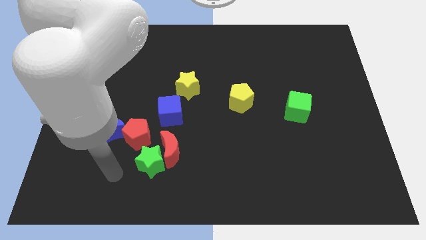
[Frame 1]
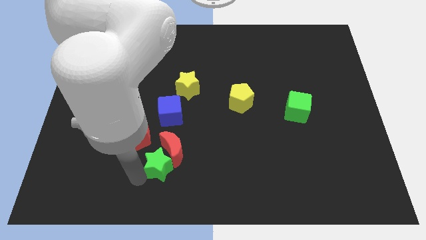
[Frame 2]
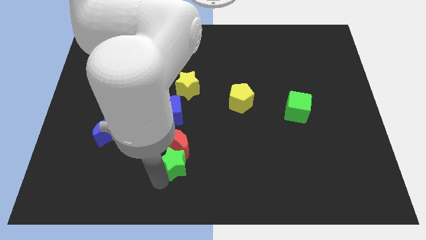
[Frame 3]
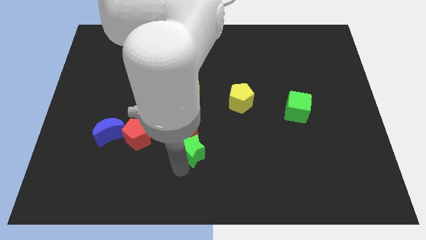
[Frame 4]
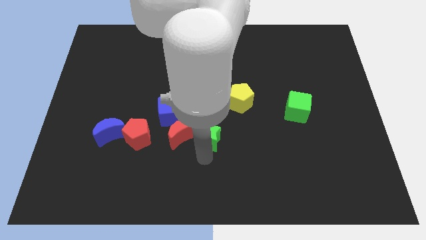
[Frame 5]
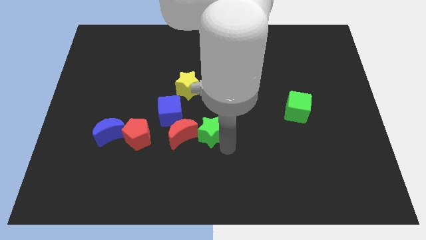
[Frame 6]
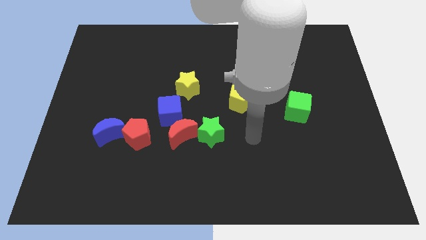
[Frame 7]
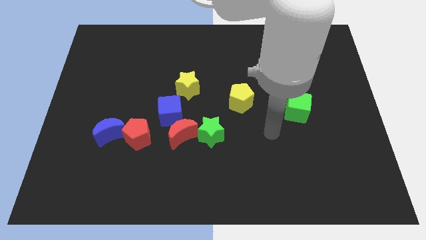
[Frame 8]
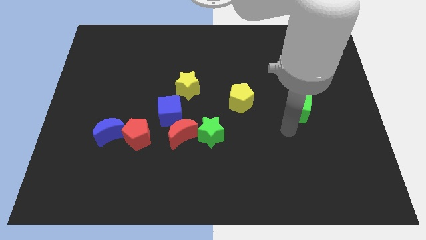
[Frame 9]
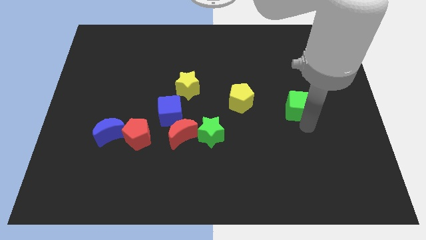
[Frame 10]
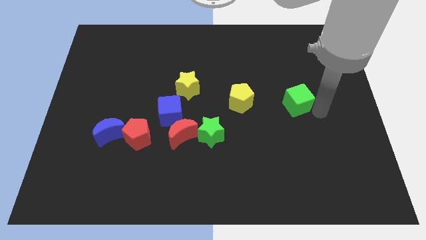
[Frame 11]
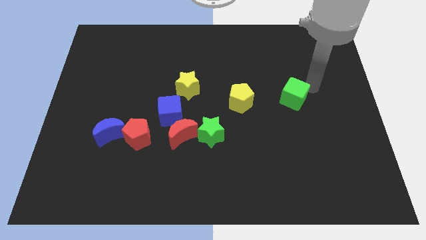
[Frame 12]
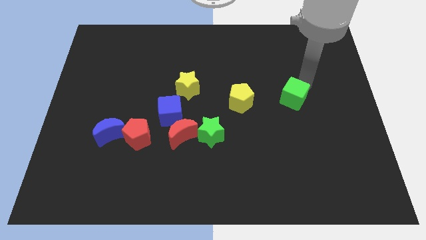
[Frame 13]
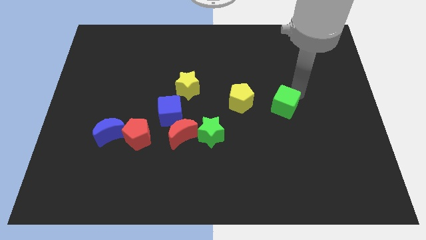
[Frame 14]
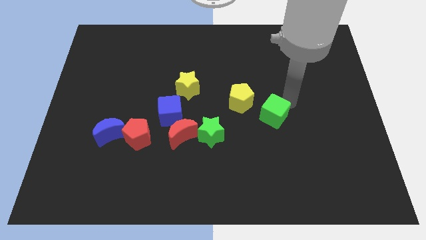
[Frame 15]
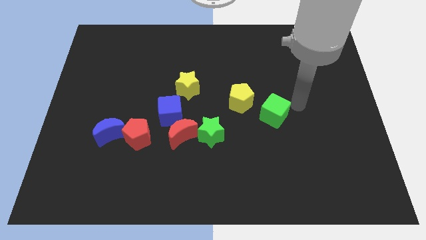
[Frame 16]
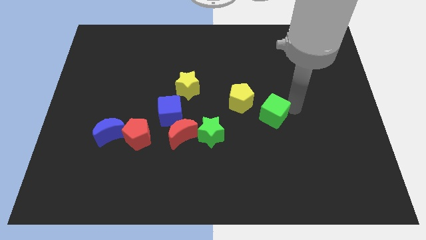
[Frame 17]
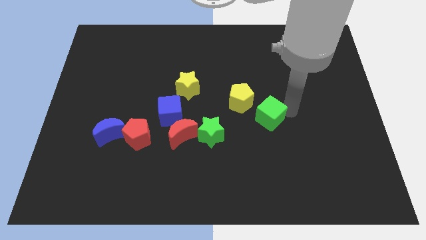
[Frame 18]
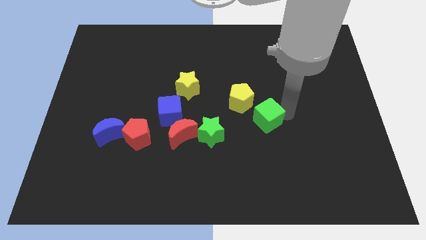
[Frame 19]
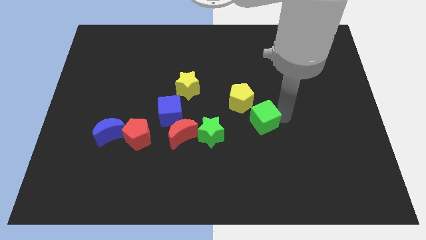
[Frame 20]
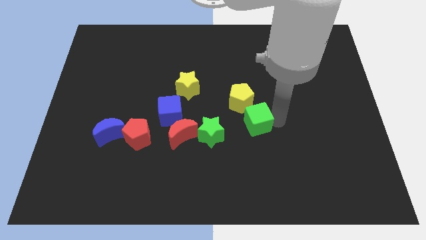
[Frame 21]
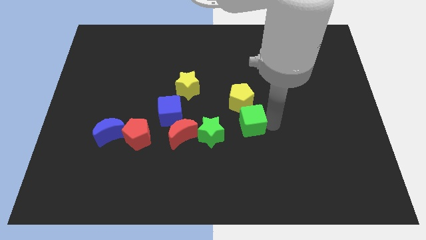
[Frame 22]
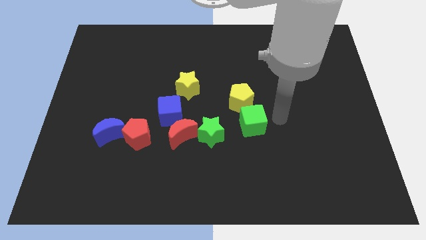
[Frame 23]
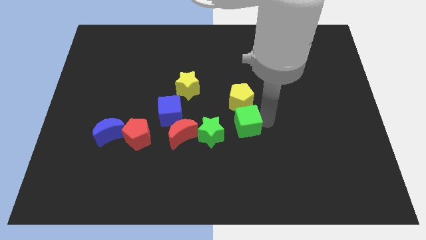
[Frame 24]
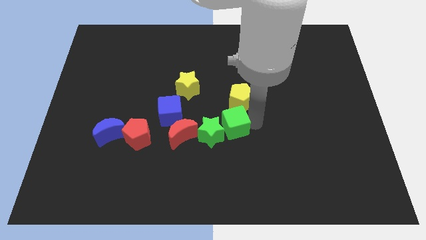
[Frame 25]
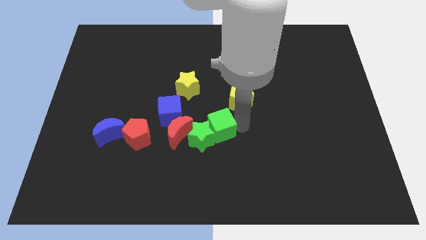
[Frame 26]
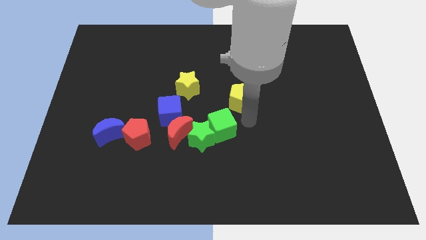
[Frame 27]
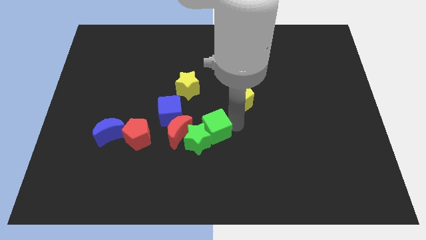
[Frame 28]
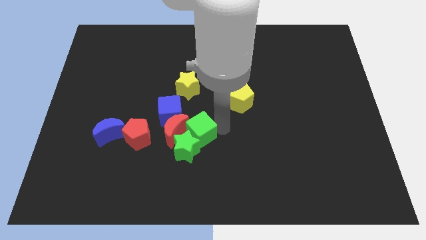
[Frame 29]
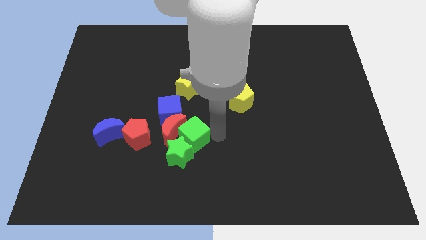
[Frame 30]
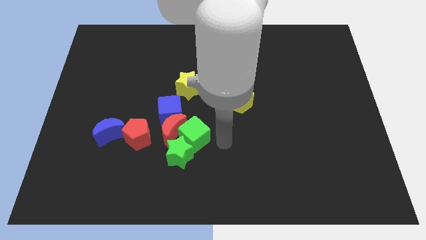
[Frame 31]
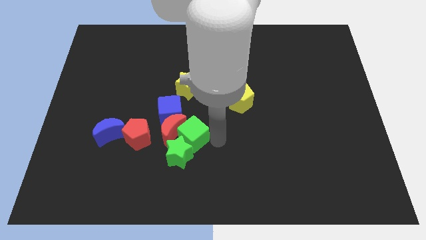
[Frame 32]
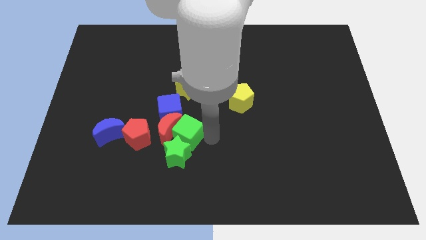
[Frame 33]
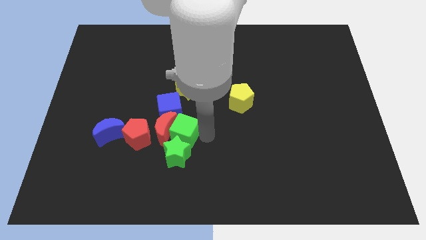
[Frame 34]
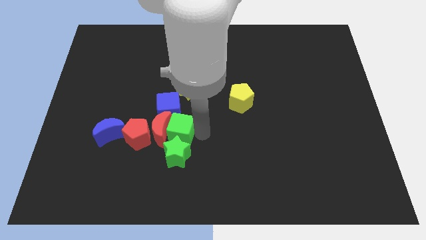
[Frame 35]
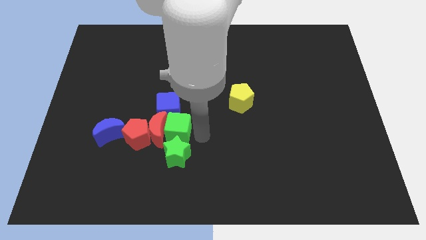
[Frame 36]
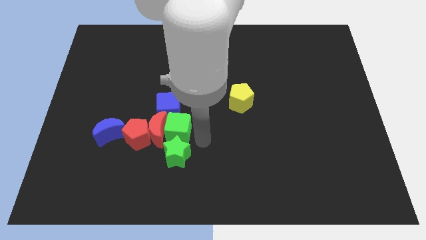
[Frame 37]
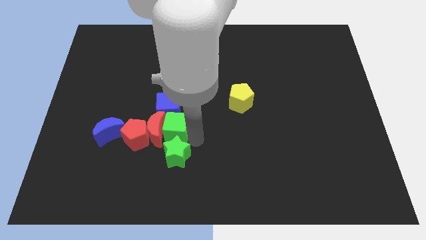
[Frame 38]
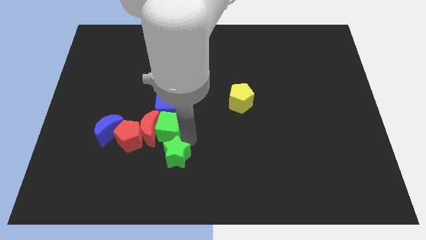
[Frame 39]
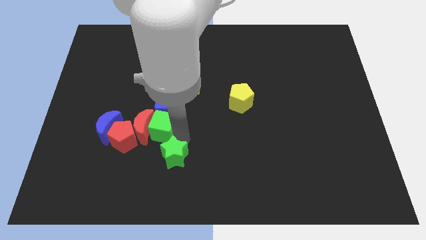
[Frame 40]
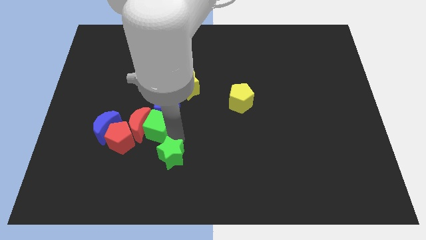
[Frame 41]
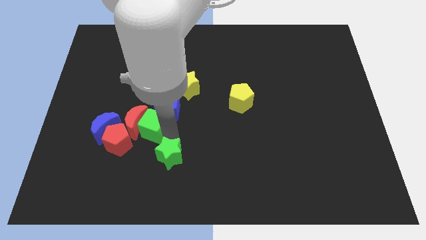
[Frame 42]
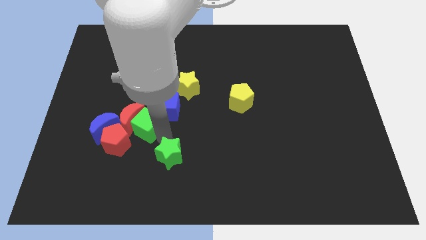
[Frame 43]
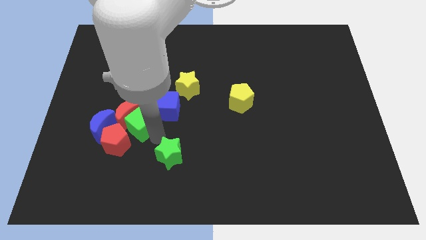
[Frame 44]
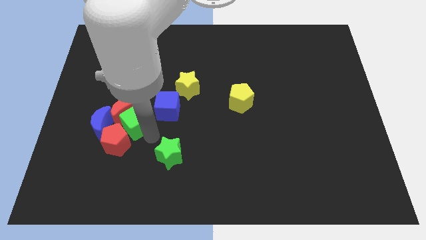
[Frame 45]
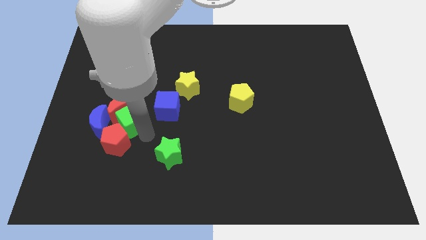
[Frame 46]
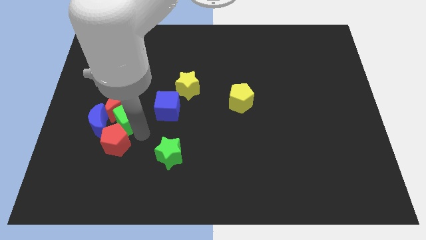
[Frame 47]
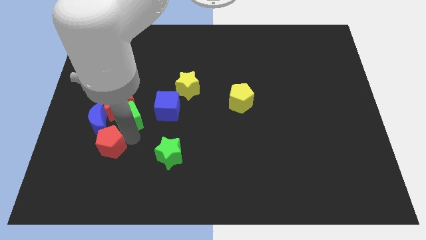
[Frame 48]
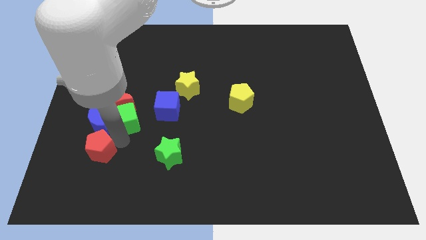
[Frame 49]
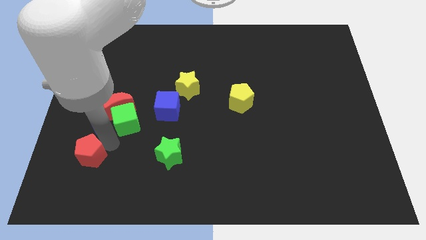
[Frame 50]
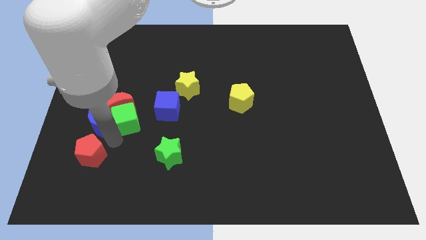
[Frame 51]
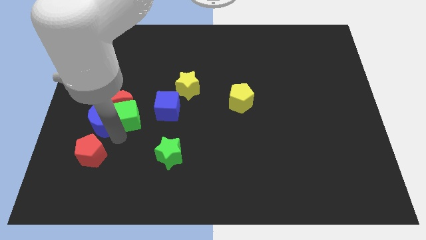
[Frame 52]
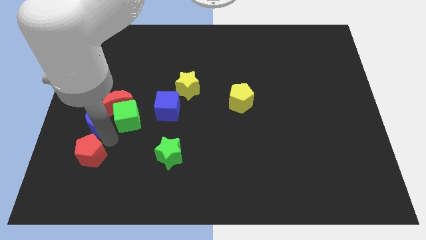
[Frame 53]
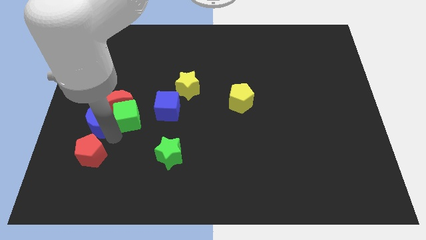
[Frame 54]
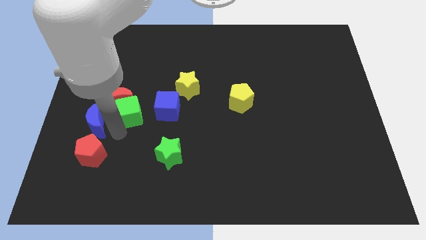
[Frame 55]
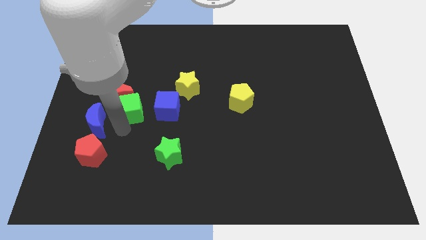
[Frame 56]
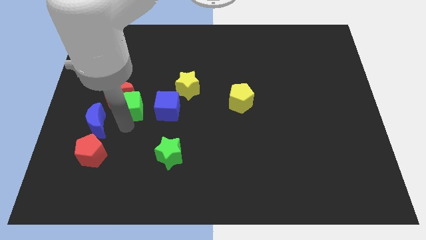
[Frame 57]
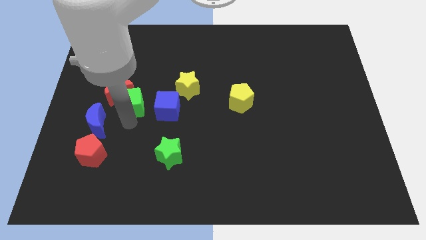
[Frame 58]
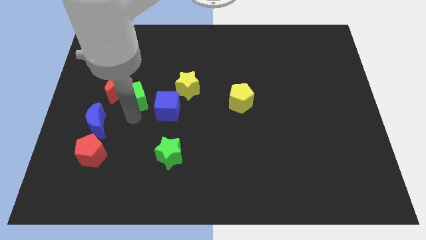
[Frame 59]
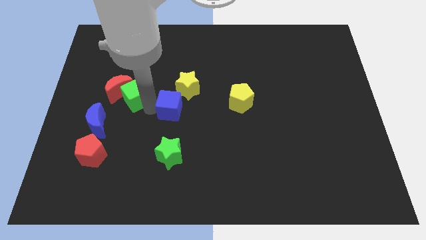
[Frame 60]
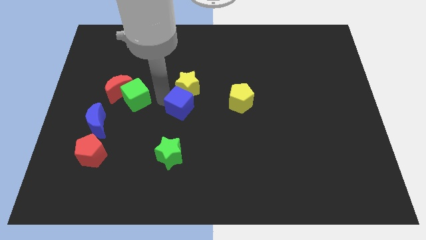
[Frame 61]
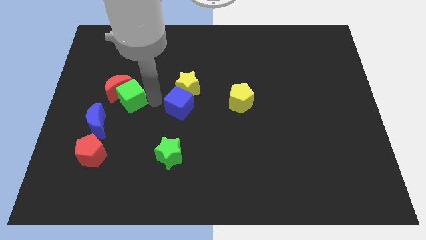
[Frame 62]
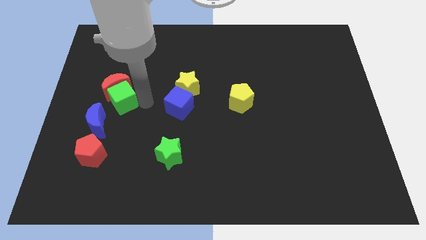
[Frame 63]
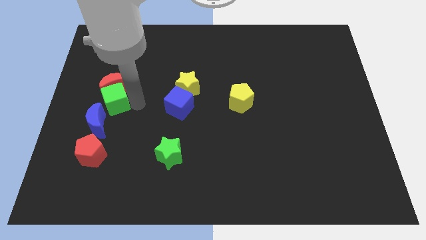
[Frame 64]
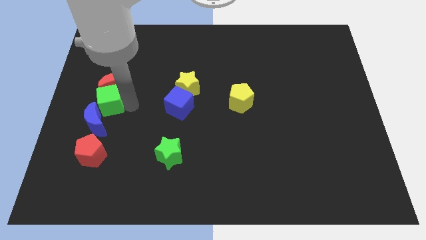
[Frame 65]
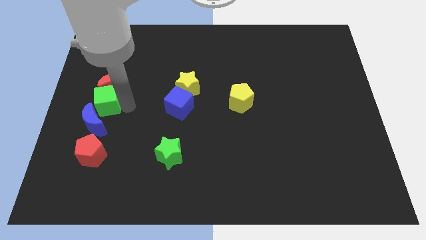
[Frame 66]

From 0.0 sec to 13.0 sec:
put the green cube to the left side of the board
